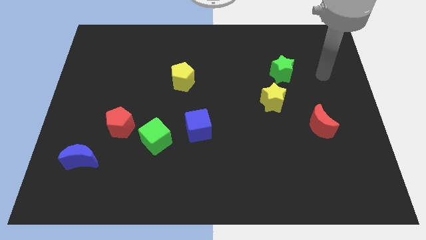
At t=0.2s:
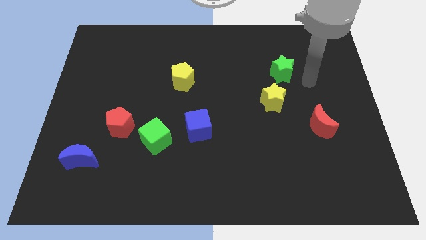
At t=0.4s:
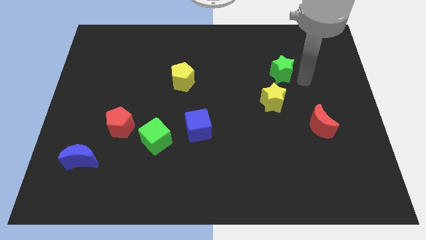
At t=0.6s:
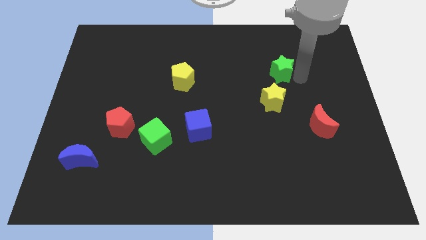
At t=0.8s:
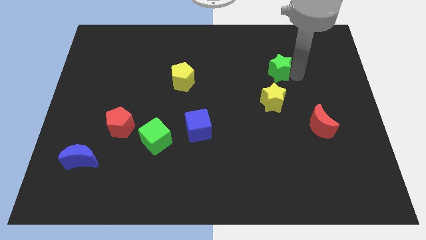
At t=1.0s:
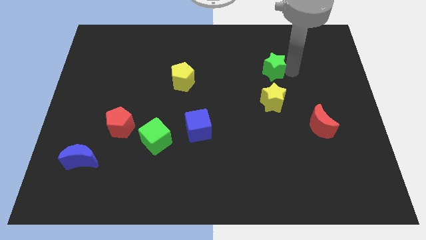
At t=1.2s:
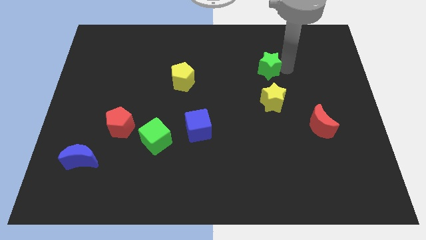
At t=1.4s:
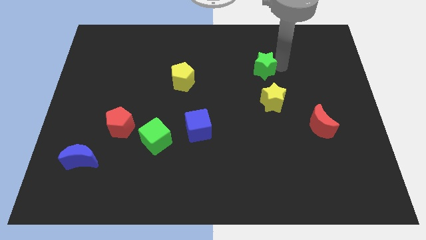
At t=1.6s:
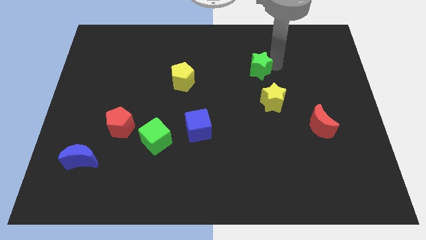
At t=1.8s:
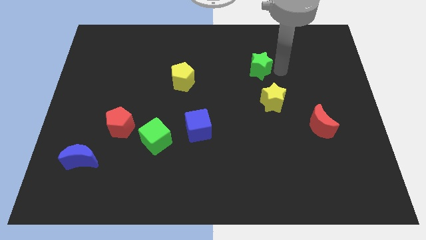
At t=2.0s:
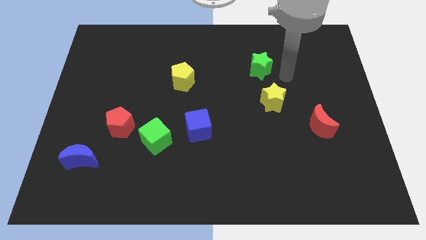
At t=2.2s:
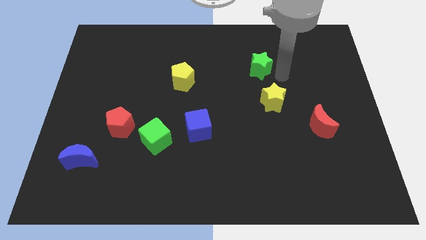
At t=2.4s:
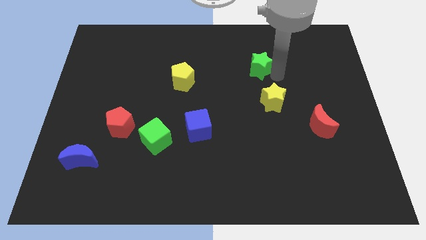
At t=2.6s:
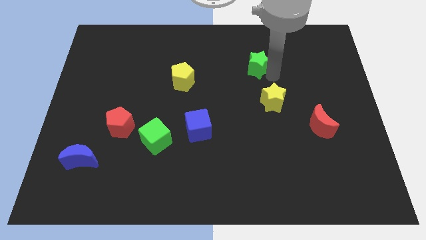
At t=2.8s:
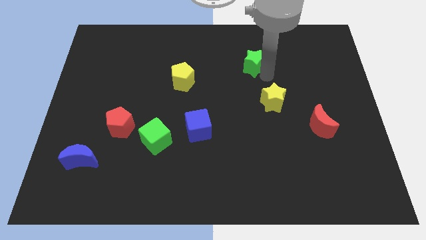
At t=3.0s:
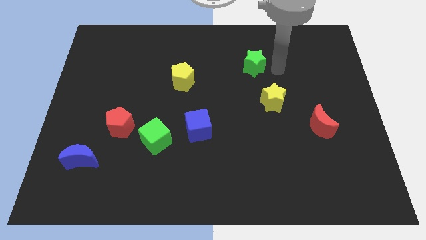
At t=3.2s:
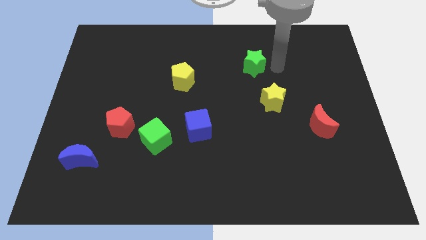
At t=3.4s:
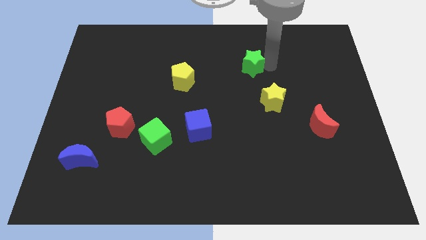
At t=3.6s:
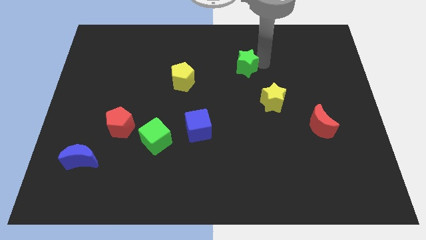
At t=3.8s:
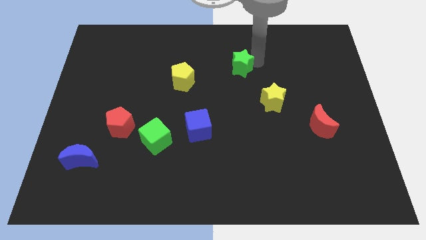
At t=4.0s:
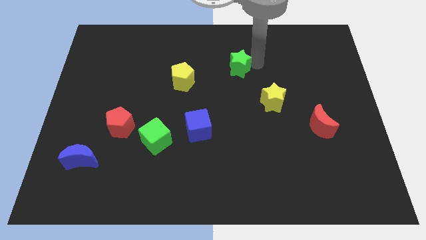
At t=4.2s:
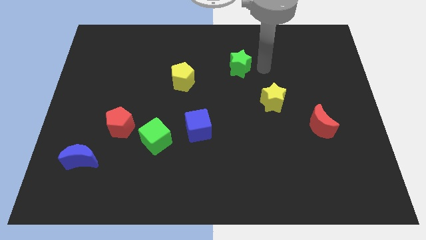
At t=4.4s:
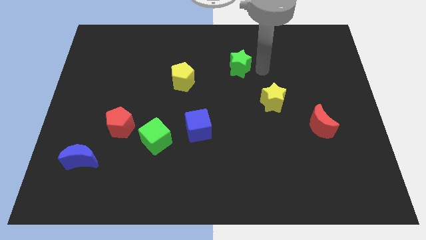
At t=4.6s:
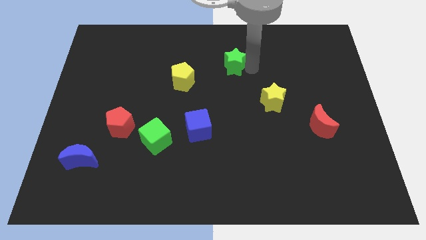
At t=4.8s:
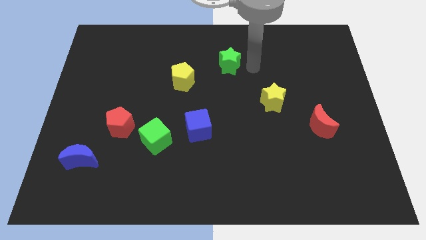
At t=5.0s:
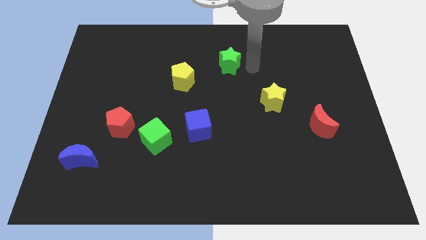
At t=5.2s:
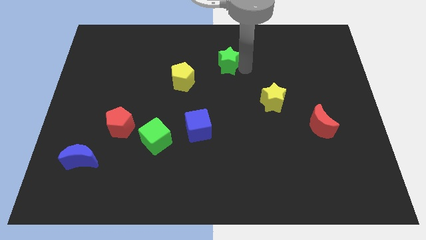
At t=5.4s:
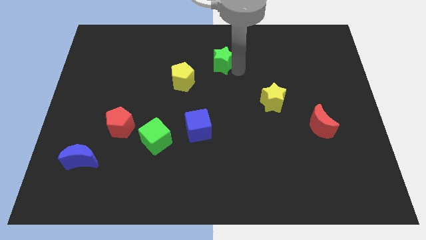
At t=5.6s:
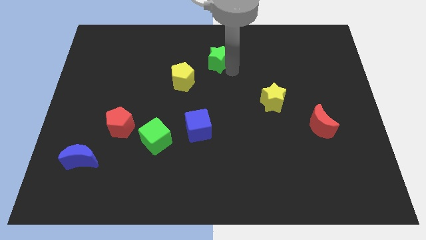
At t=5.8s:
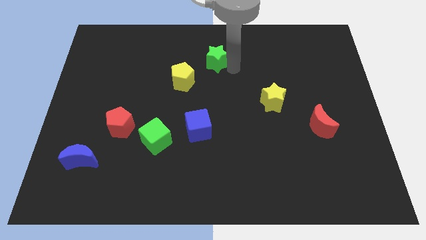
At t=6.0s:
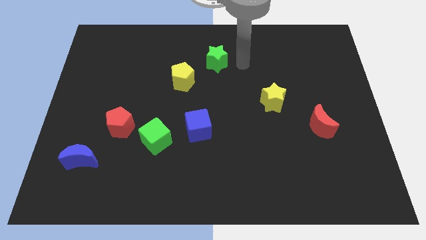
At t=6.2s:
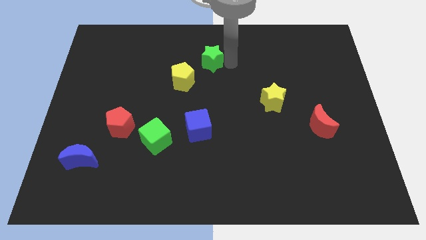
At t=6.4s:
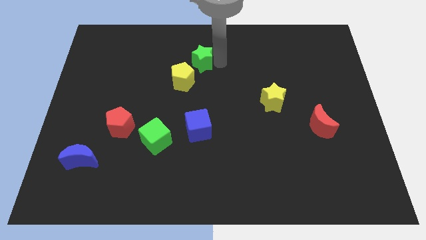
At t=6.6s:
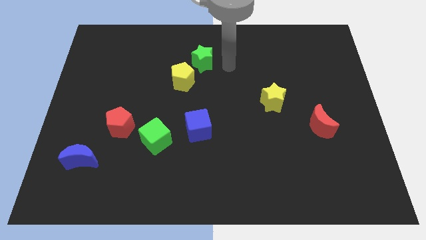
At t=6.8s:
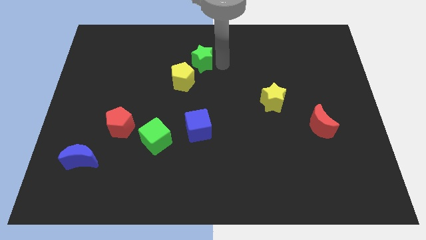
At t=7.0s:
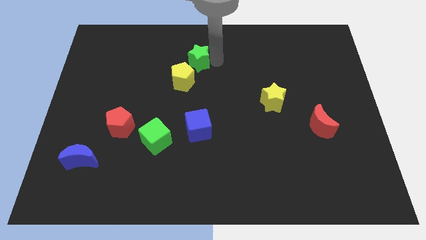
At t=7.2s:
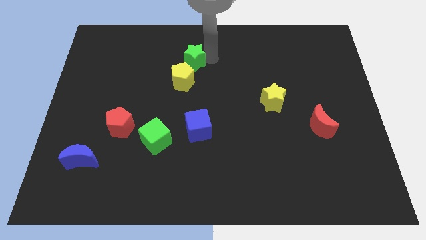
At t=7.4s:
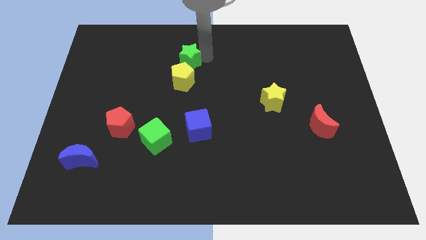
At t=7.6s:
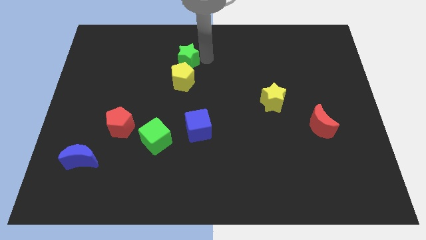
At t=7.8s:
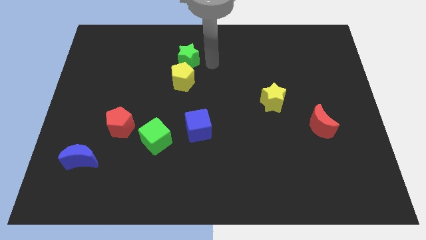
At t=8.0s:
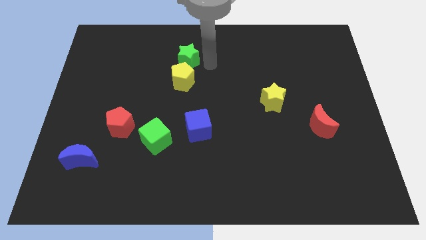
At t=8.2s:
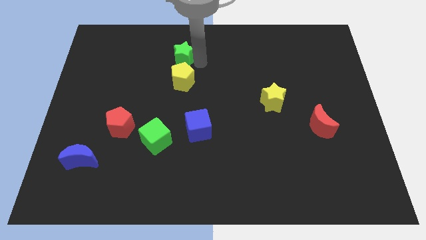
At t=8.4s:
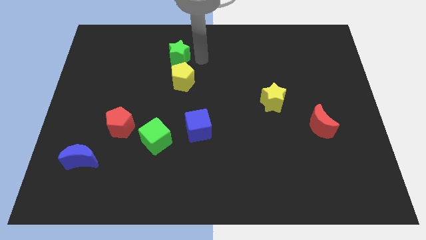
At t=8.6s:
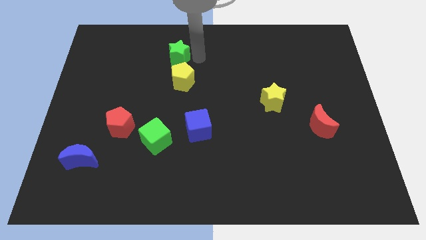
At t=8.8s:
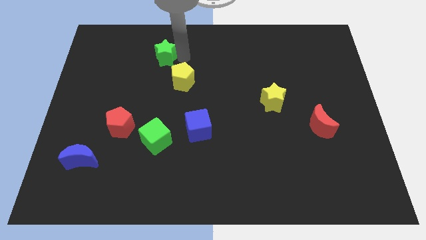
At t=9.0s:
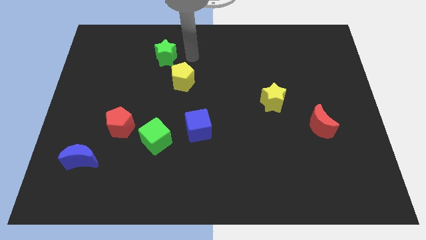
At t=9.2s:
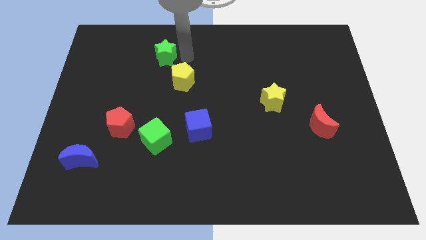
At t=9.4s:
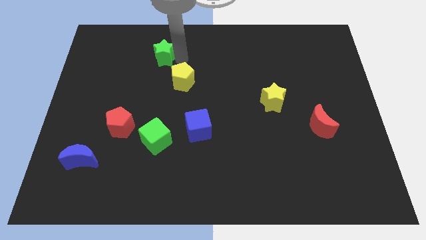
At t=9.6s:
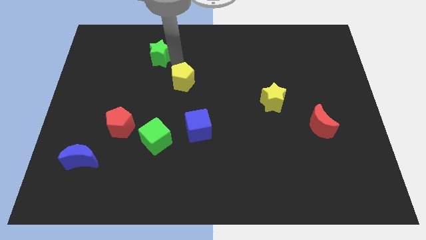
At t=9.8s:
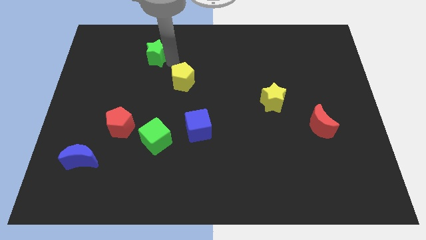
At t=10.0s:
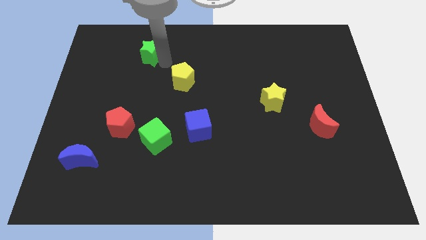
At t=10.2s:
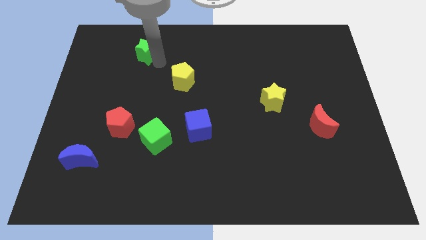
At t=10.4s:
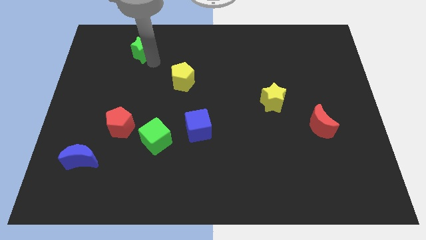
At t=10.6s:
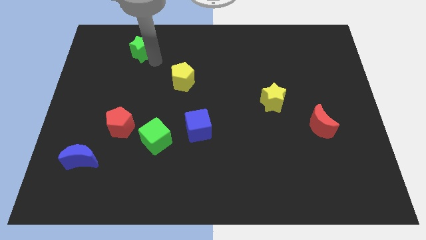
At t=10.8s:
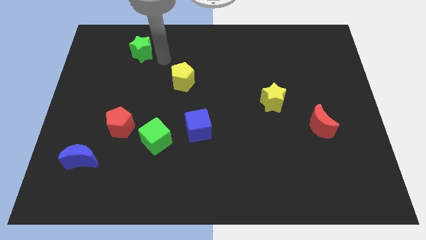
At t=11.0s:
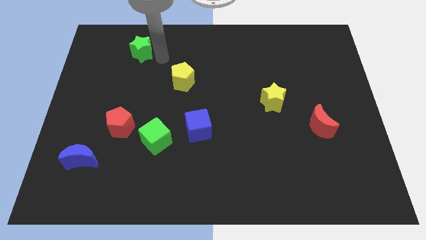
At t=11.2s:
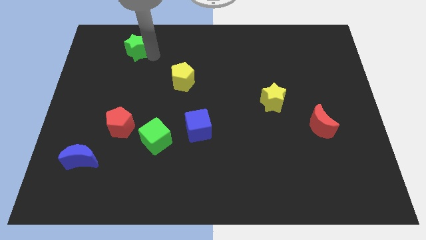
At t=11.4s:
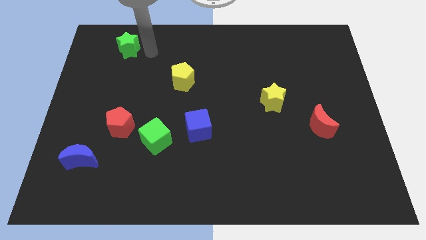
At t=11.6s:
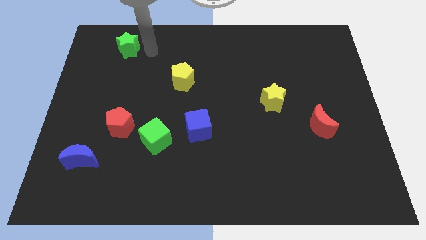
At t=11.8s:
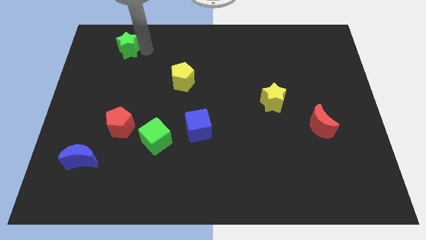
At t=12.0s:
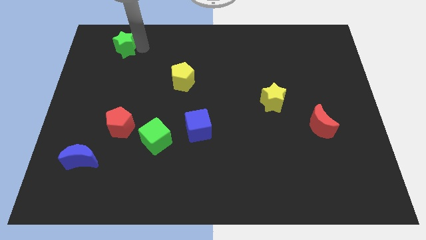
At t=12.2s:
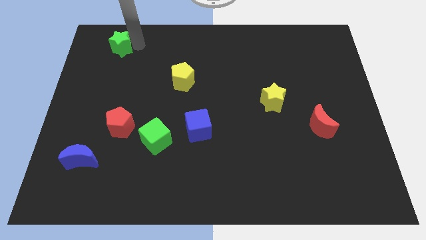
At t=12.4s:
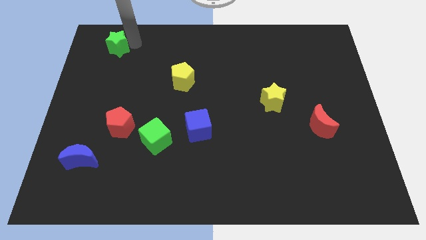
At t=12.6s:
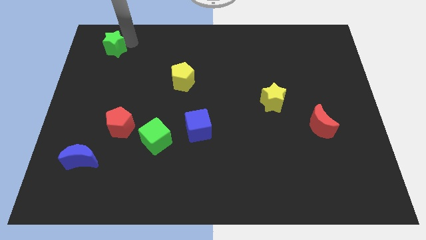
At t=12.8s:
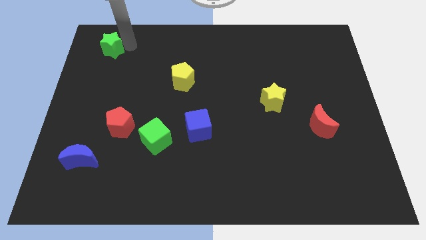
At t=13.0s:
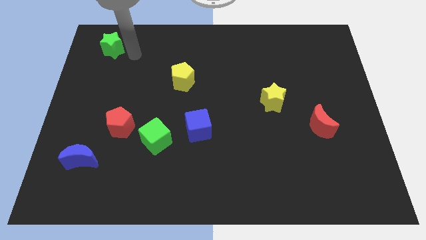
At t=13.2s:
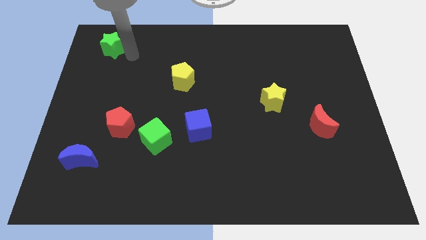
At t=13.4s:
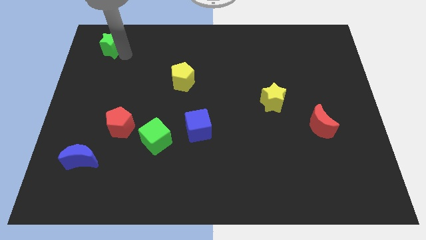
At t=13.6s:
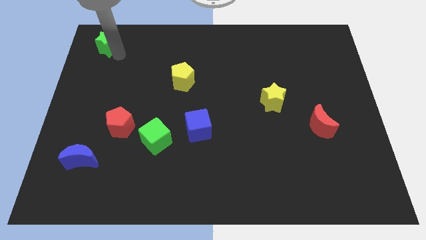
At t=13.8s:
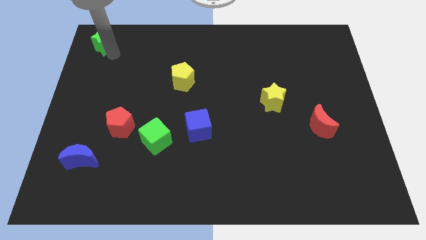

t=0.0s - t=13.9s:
move the green star to the top left corner
